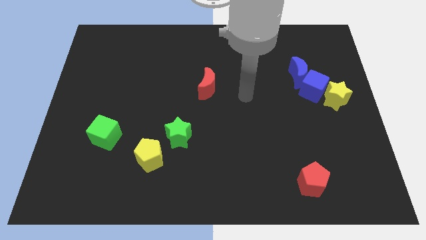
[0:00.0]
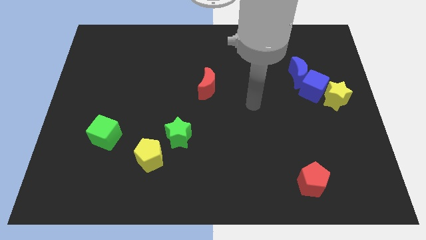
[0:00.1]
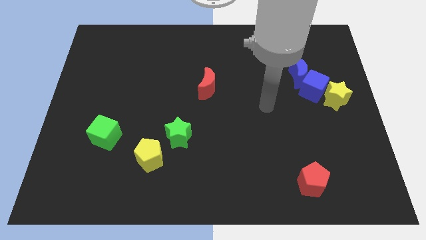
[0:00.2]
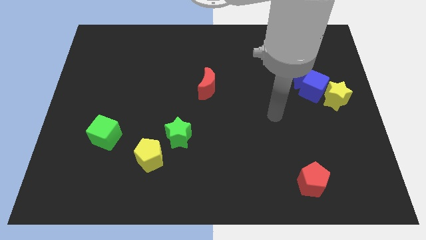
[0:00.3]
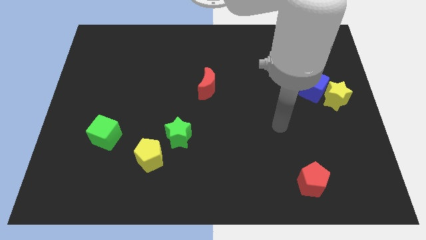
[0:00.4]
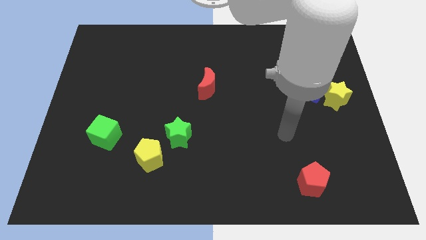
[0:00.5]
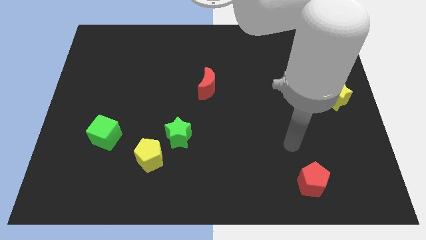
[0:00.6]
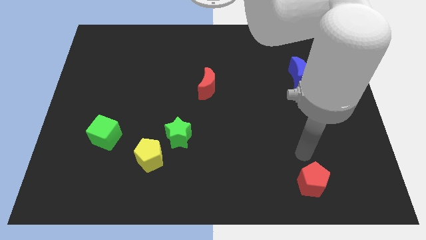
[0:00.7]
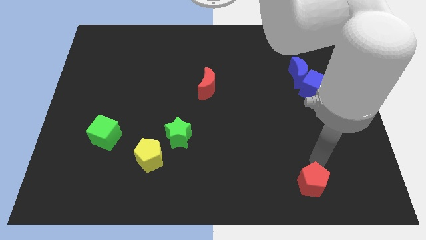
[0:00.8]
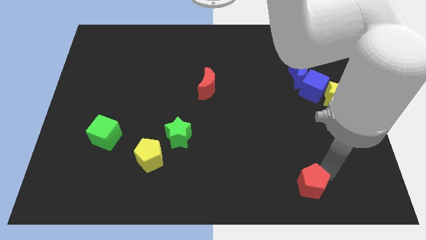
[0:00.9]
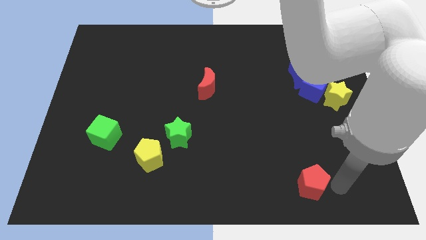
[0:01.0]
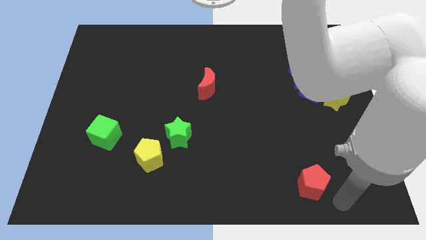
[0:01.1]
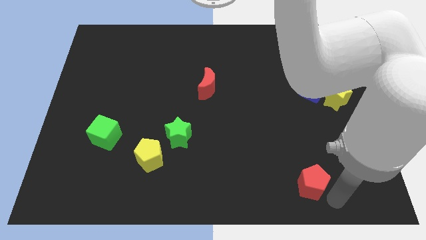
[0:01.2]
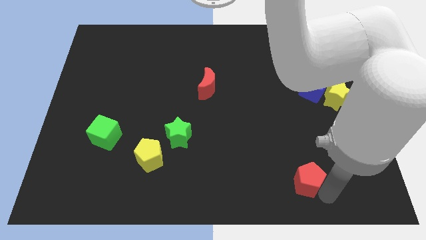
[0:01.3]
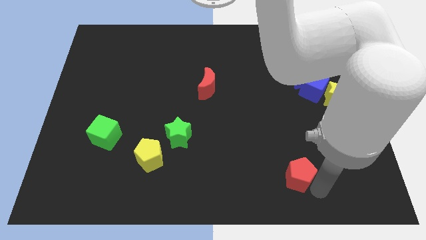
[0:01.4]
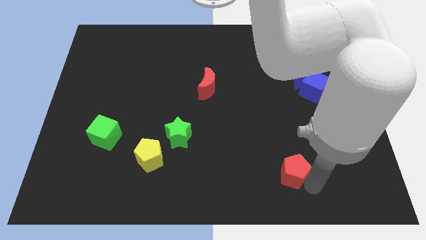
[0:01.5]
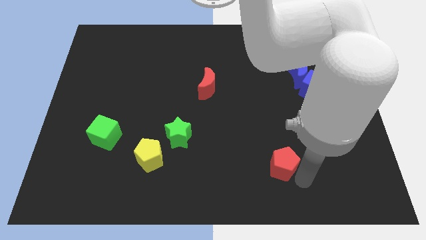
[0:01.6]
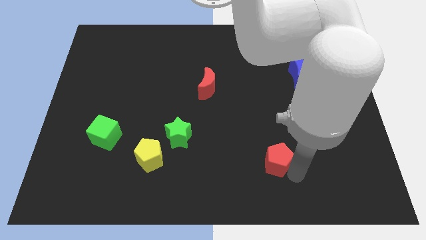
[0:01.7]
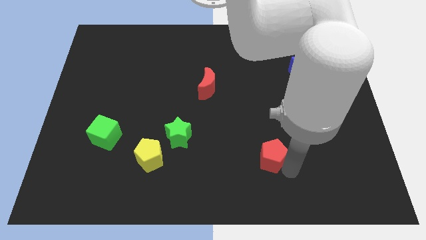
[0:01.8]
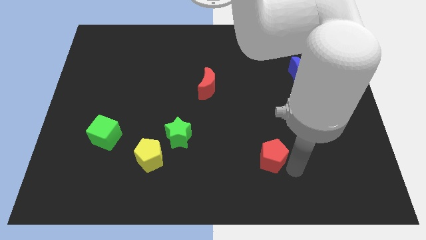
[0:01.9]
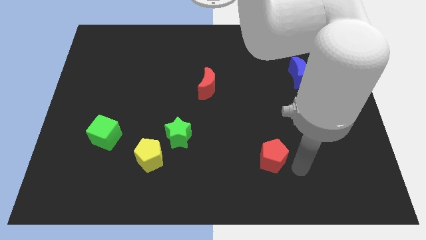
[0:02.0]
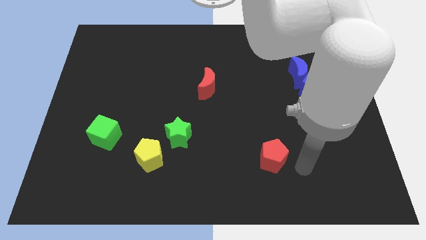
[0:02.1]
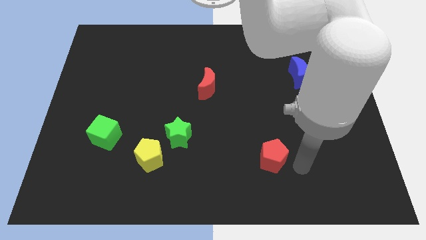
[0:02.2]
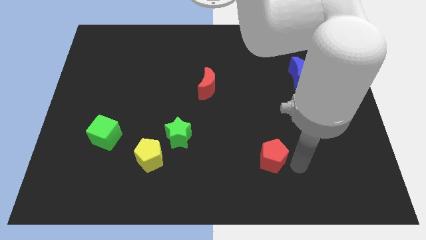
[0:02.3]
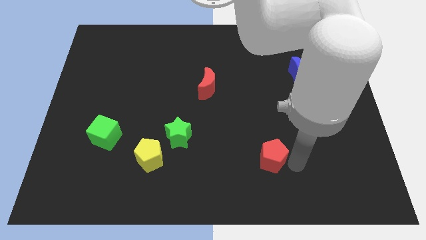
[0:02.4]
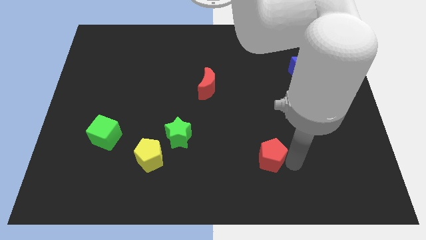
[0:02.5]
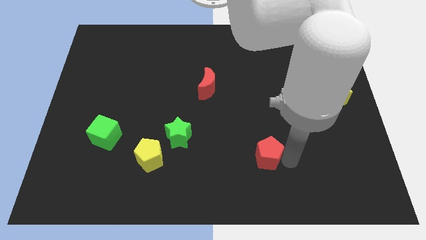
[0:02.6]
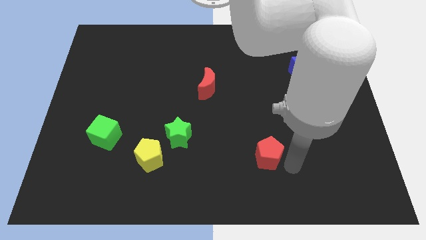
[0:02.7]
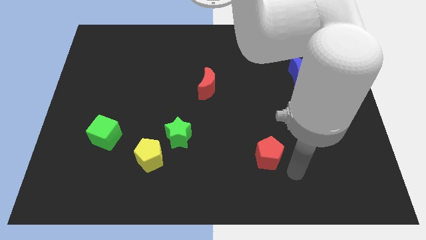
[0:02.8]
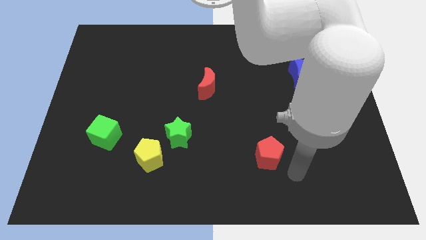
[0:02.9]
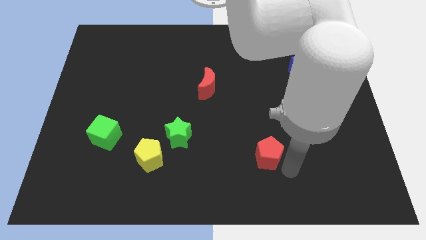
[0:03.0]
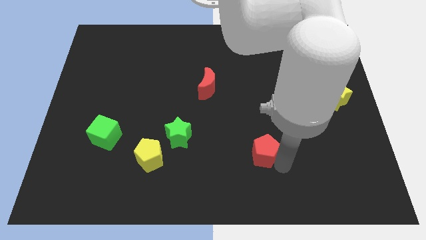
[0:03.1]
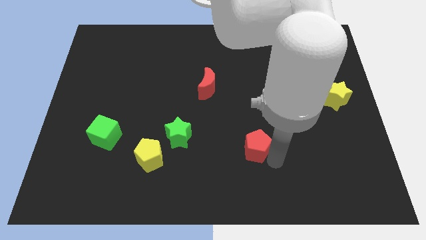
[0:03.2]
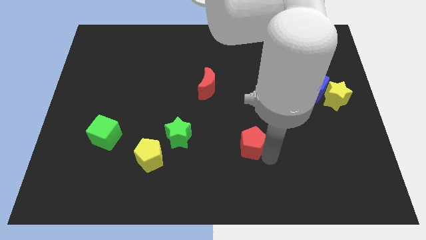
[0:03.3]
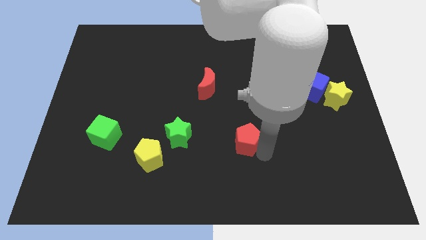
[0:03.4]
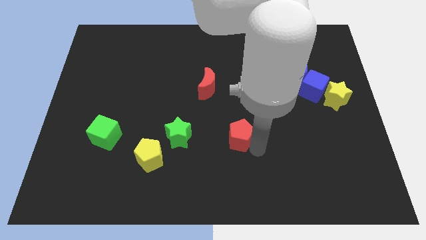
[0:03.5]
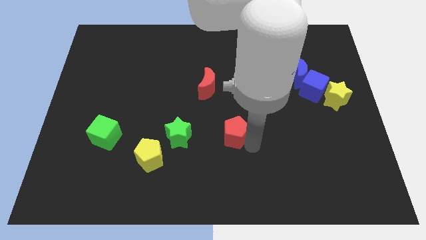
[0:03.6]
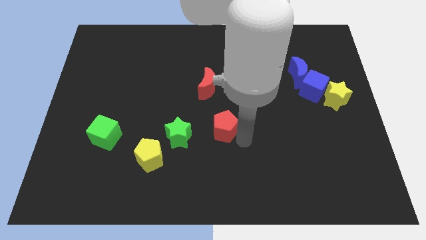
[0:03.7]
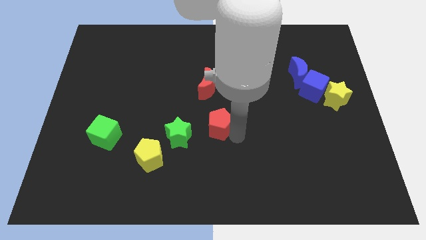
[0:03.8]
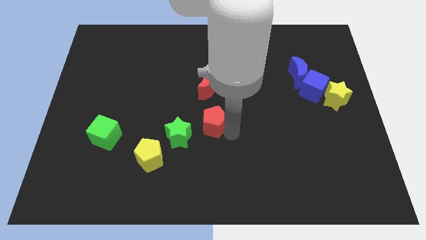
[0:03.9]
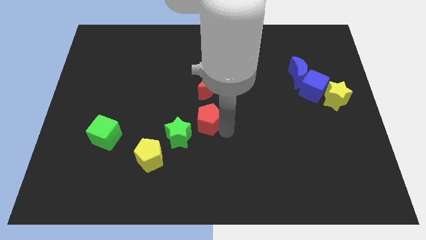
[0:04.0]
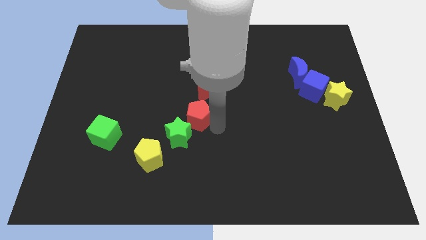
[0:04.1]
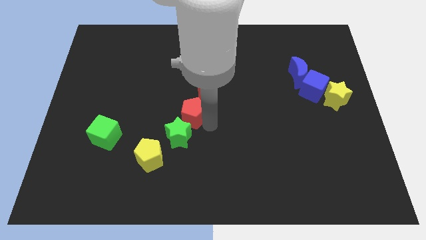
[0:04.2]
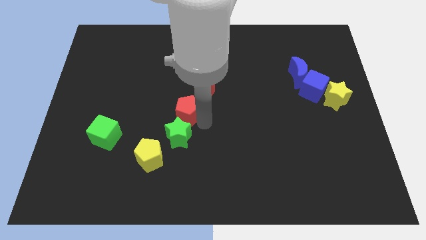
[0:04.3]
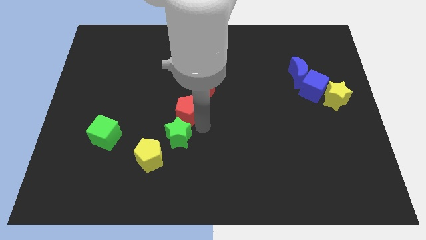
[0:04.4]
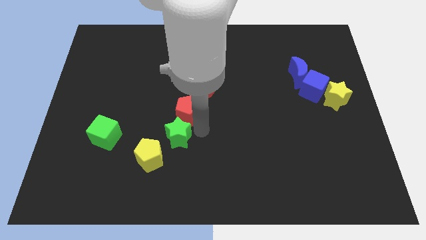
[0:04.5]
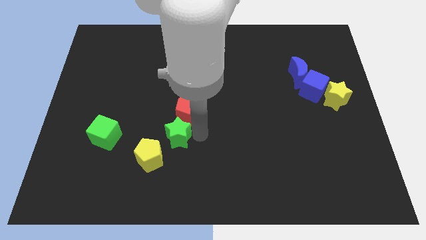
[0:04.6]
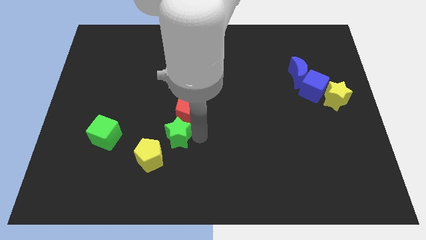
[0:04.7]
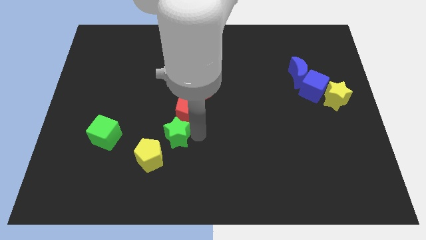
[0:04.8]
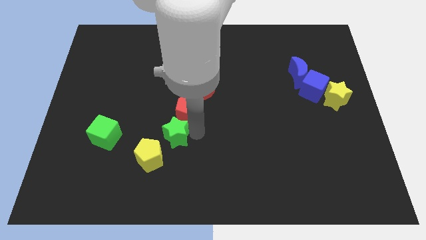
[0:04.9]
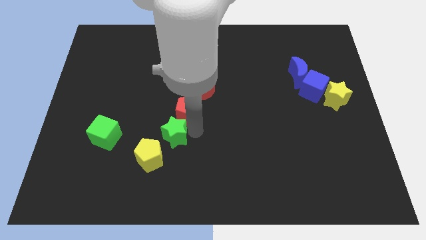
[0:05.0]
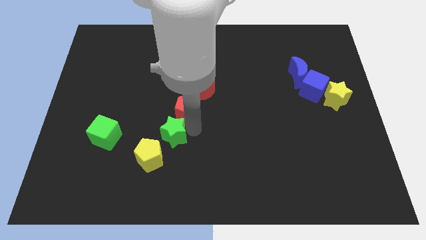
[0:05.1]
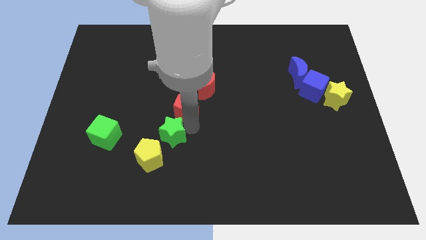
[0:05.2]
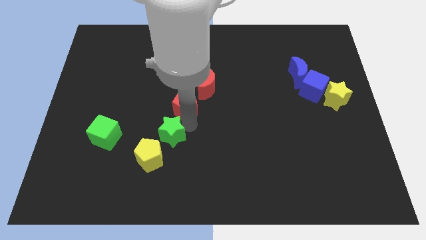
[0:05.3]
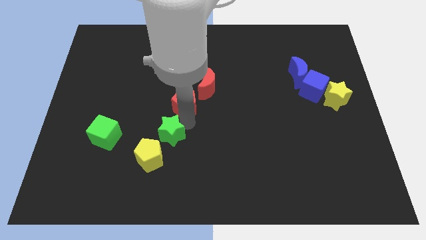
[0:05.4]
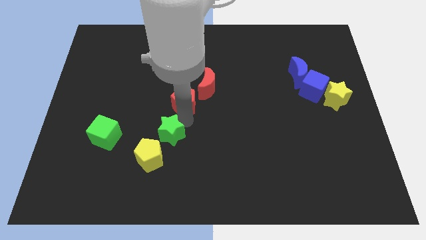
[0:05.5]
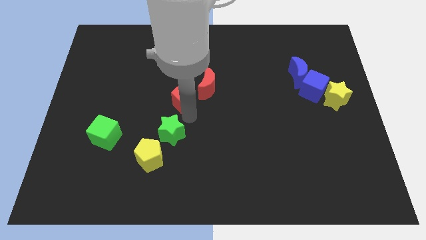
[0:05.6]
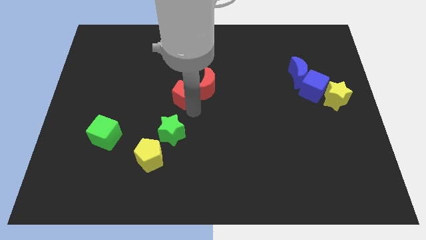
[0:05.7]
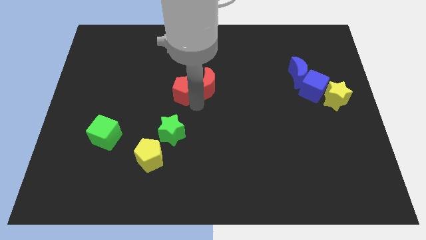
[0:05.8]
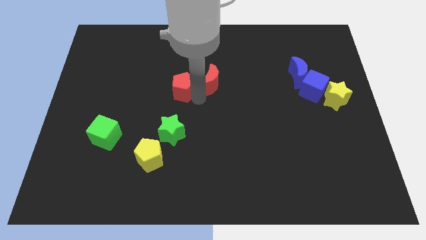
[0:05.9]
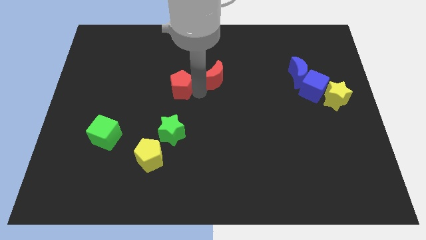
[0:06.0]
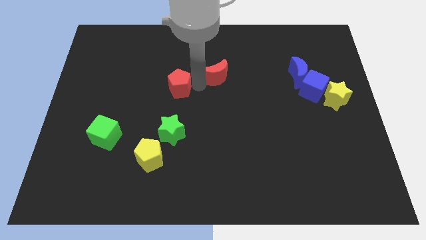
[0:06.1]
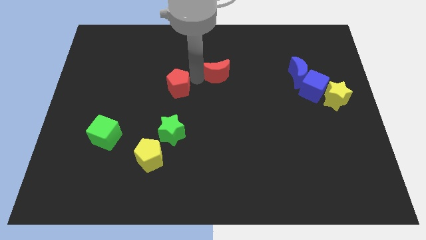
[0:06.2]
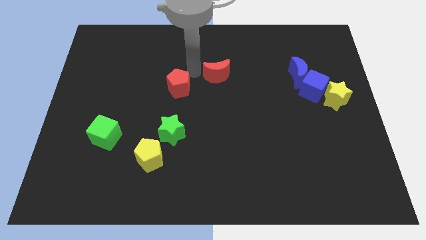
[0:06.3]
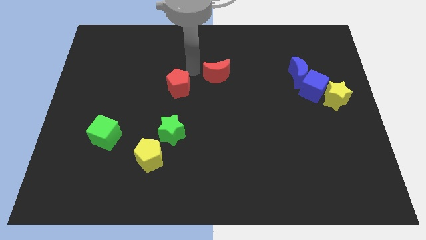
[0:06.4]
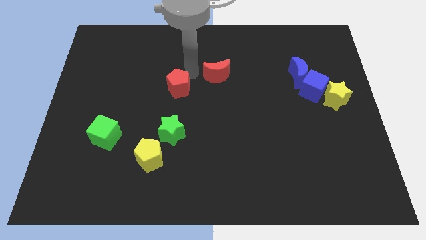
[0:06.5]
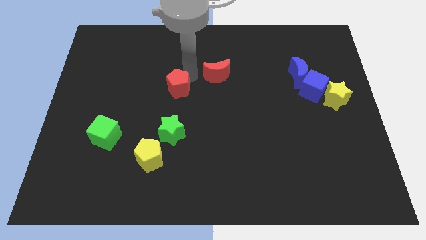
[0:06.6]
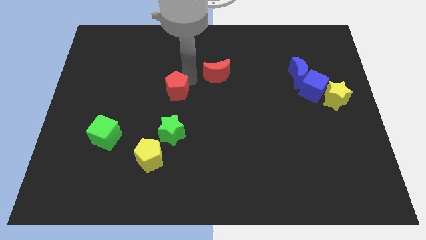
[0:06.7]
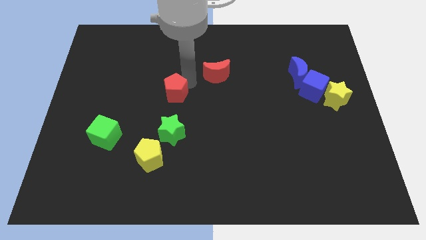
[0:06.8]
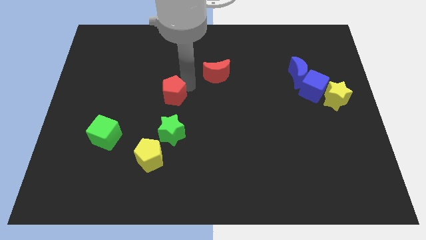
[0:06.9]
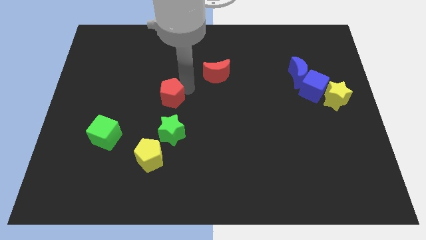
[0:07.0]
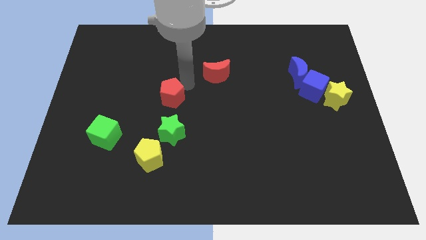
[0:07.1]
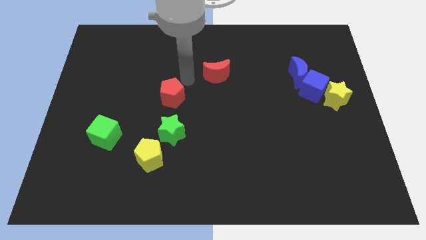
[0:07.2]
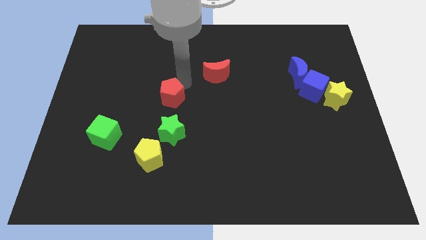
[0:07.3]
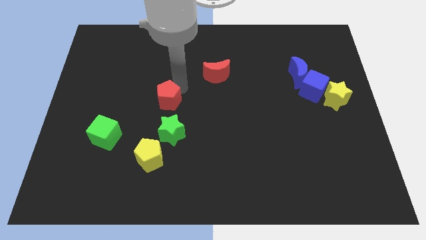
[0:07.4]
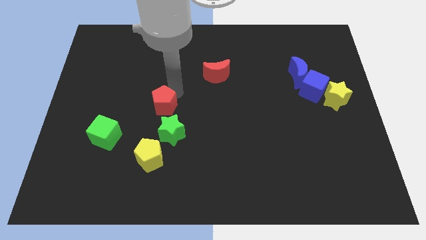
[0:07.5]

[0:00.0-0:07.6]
move the red pentagon above the yellow pentagon
